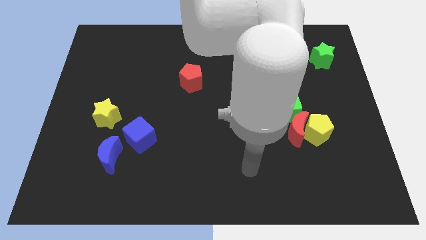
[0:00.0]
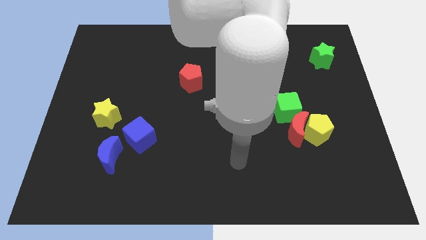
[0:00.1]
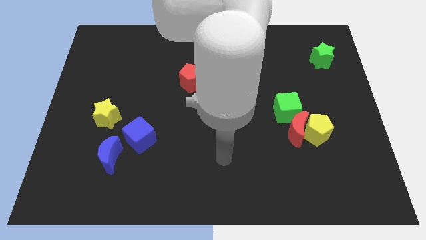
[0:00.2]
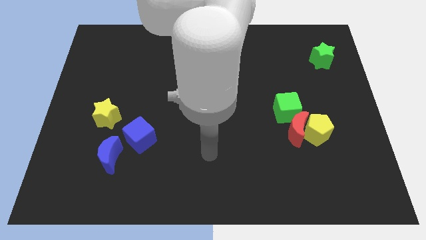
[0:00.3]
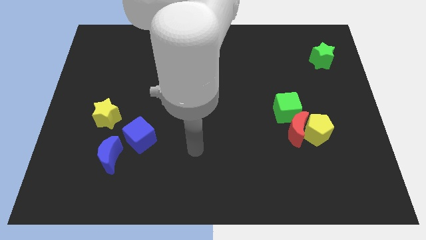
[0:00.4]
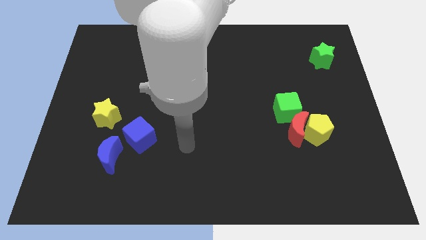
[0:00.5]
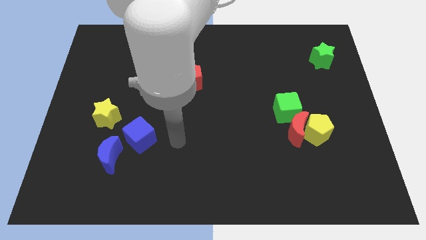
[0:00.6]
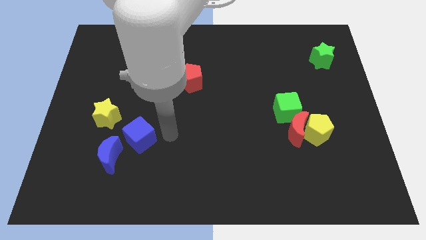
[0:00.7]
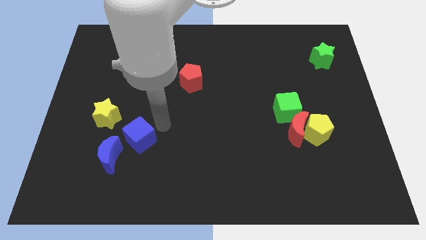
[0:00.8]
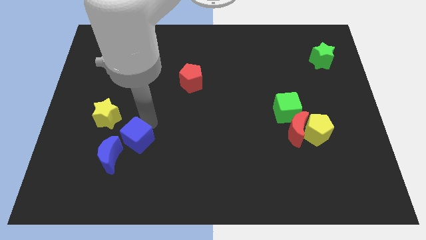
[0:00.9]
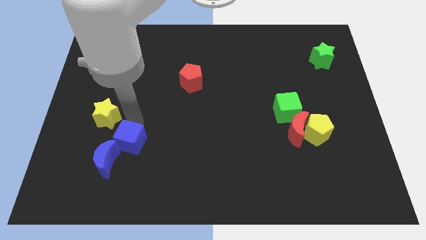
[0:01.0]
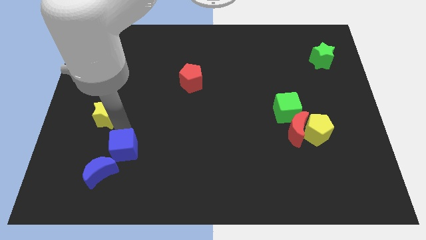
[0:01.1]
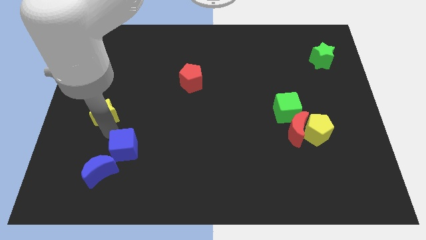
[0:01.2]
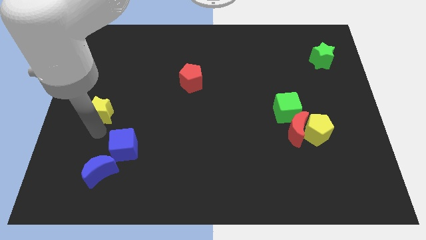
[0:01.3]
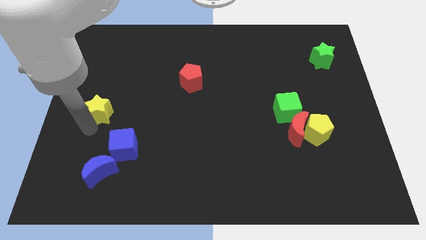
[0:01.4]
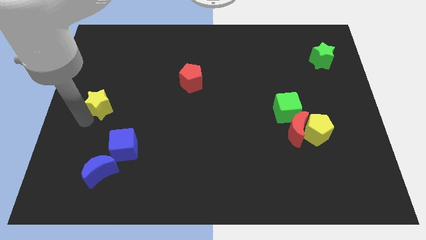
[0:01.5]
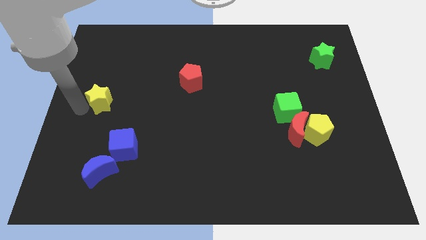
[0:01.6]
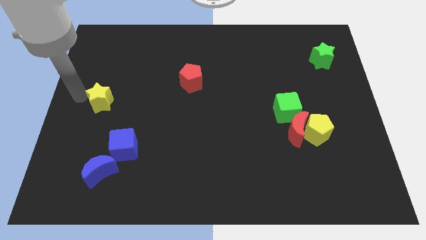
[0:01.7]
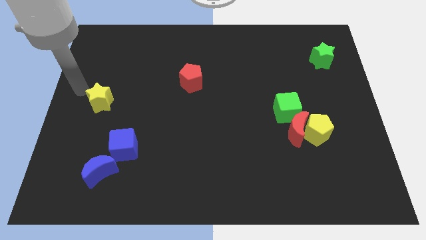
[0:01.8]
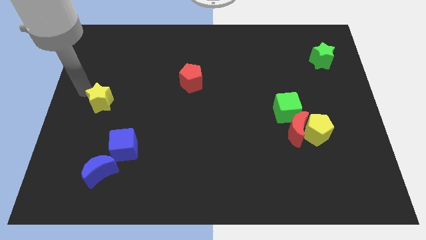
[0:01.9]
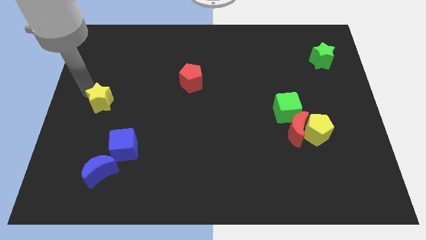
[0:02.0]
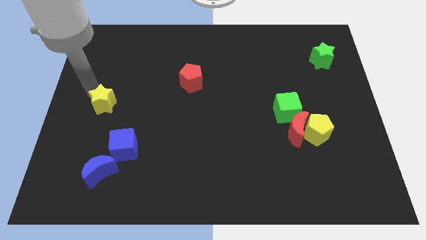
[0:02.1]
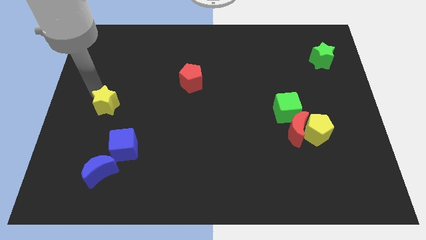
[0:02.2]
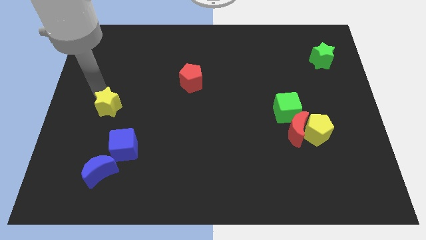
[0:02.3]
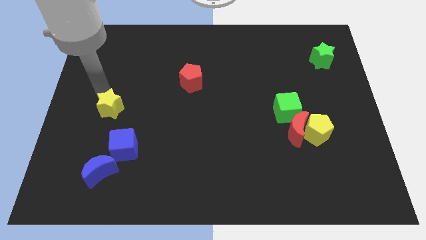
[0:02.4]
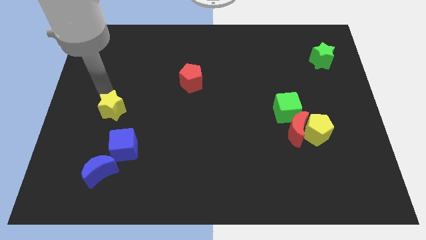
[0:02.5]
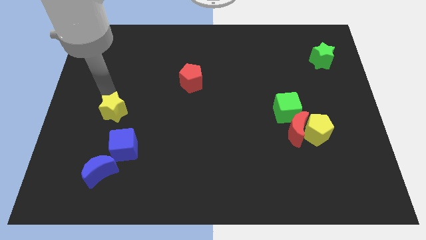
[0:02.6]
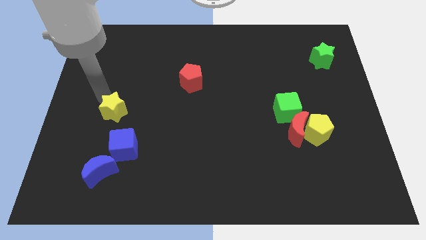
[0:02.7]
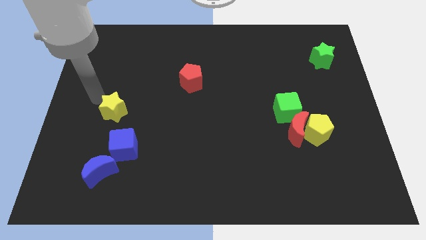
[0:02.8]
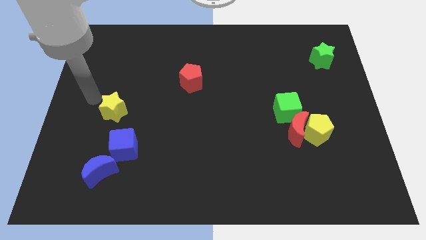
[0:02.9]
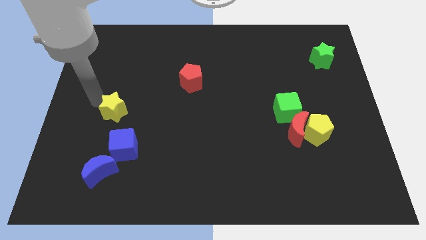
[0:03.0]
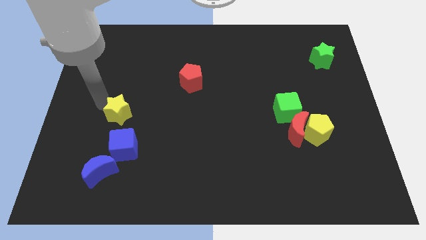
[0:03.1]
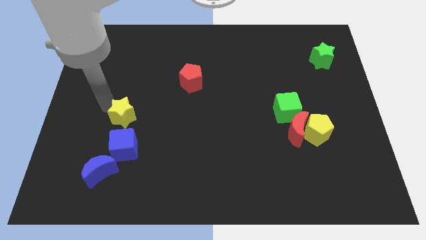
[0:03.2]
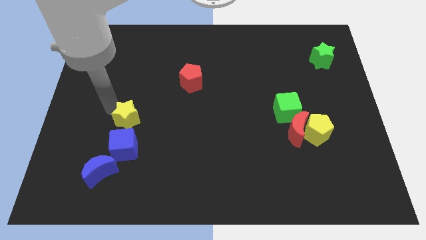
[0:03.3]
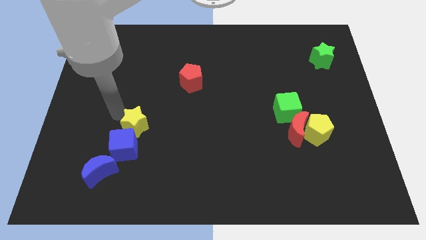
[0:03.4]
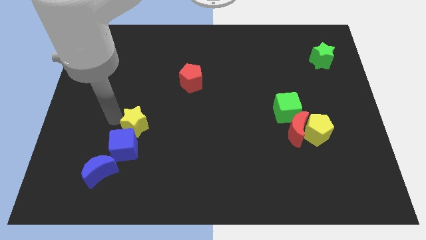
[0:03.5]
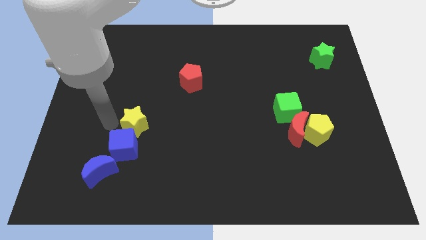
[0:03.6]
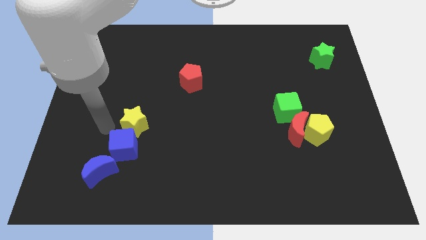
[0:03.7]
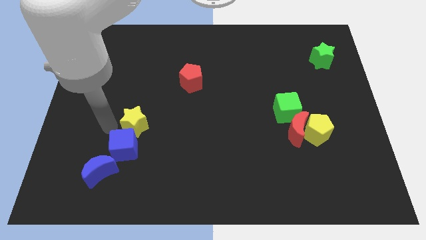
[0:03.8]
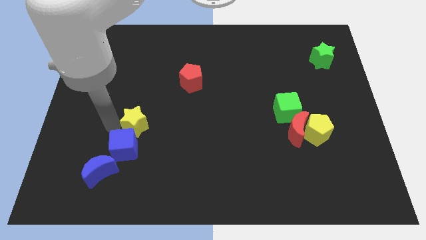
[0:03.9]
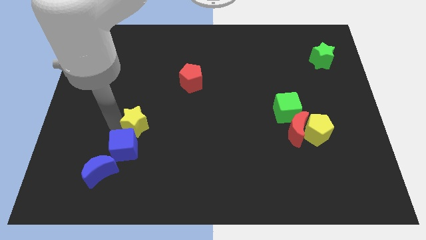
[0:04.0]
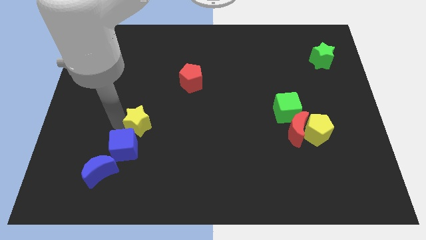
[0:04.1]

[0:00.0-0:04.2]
push the yellow star a little right

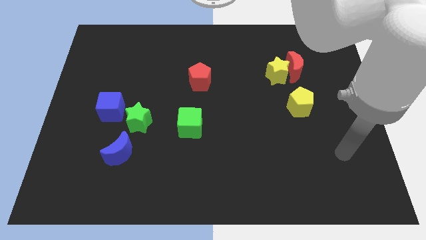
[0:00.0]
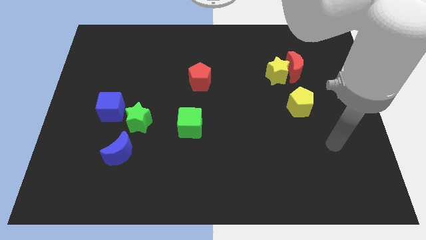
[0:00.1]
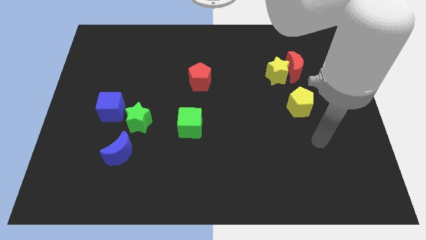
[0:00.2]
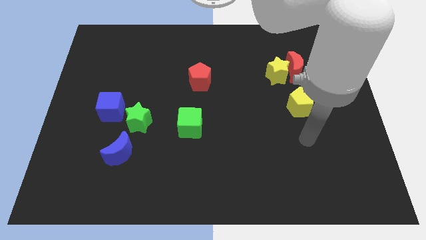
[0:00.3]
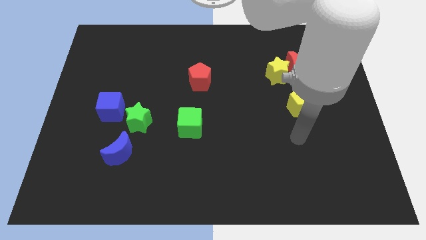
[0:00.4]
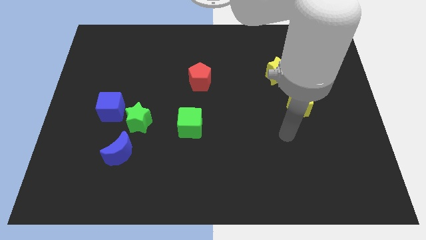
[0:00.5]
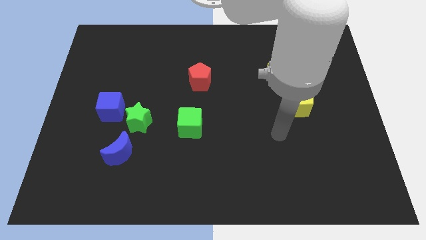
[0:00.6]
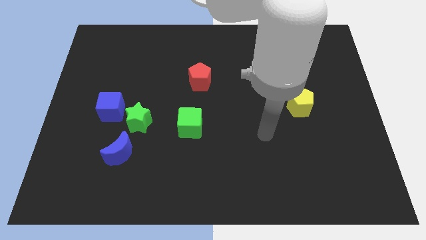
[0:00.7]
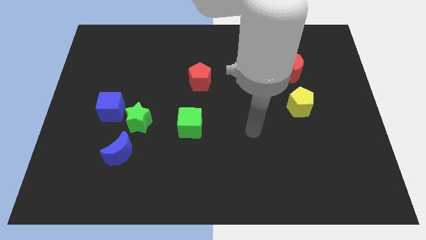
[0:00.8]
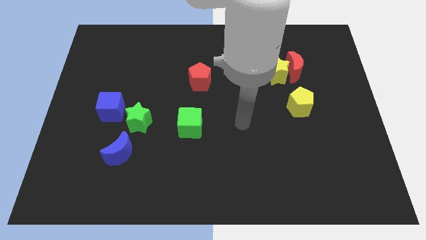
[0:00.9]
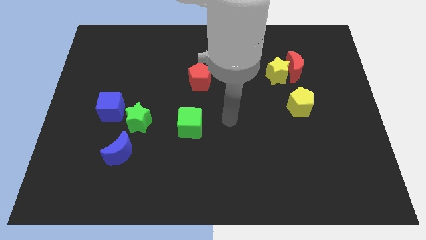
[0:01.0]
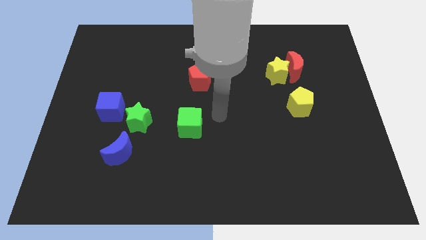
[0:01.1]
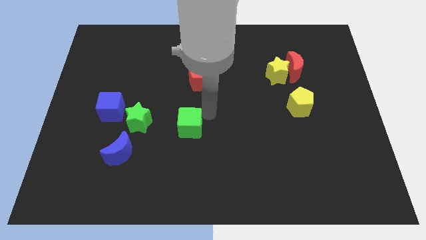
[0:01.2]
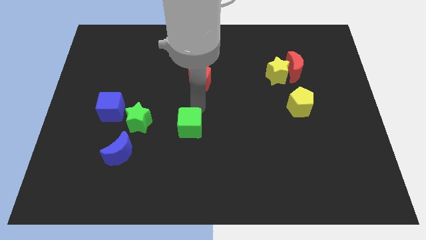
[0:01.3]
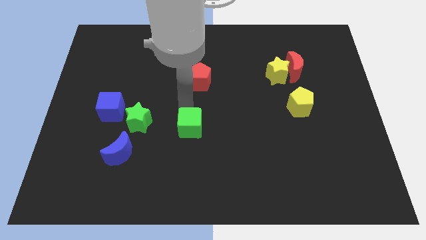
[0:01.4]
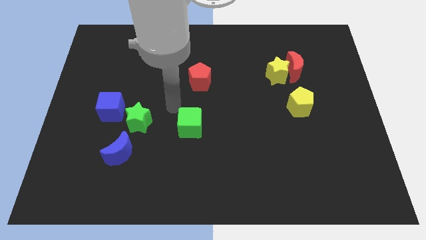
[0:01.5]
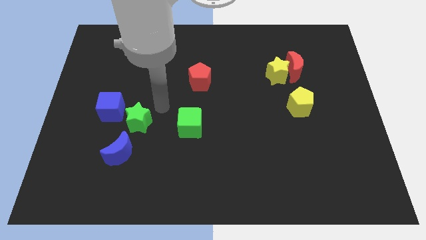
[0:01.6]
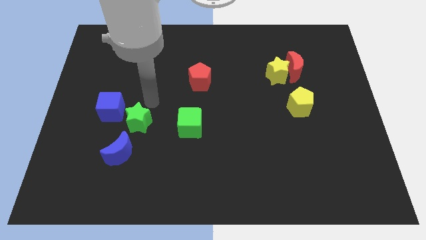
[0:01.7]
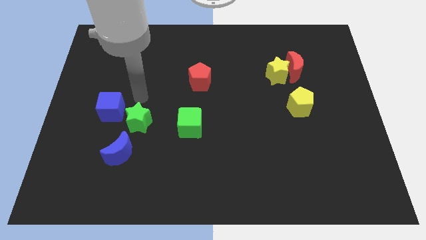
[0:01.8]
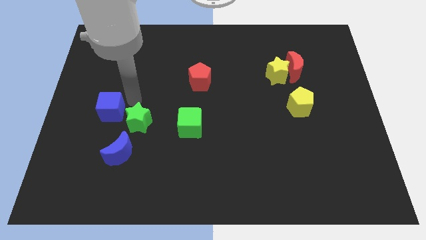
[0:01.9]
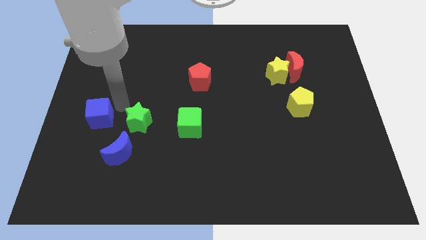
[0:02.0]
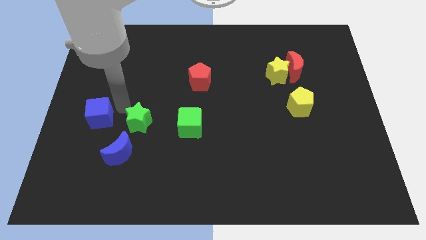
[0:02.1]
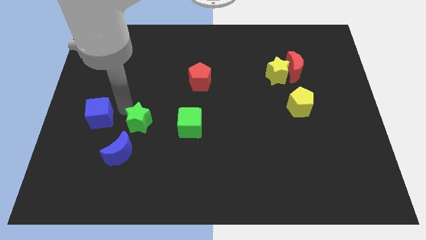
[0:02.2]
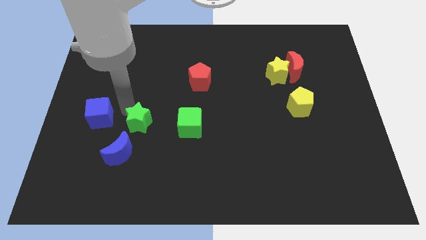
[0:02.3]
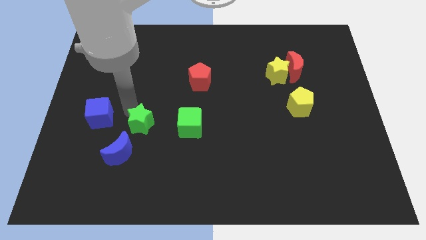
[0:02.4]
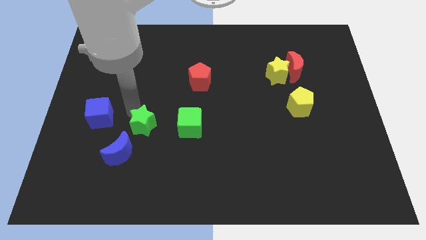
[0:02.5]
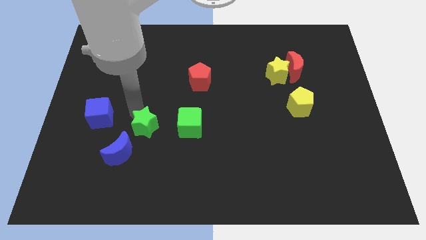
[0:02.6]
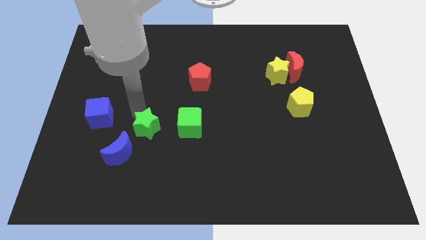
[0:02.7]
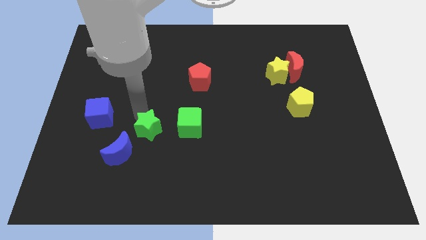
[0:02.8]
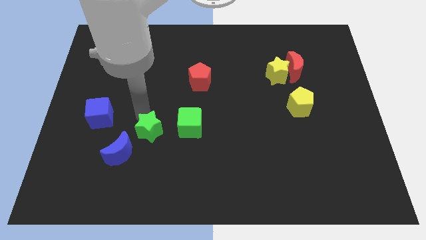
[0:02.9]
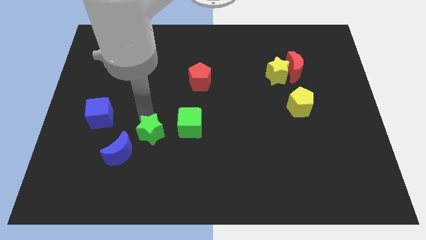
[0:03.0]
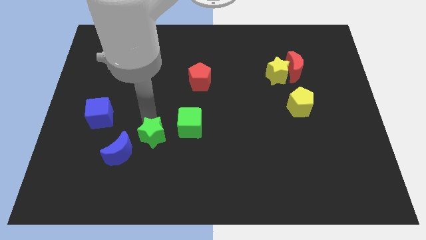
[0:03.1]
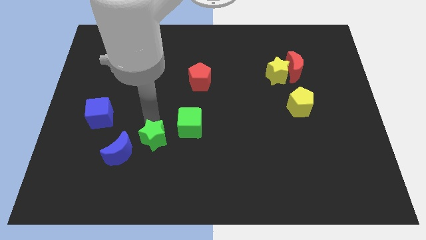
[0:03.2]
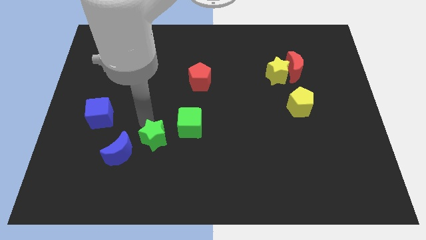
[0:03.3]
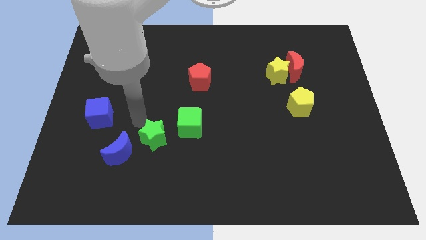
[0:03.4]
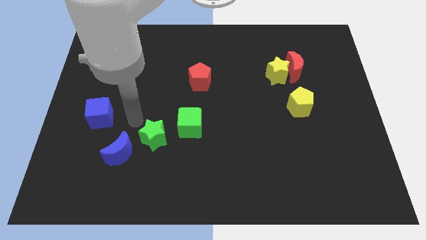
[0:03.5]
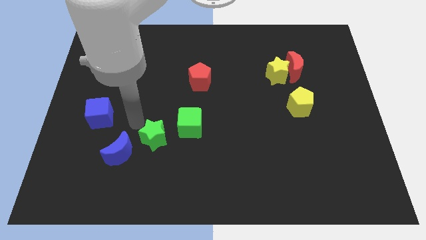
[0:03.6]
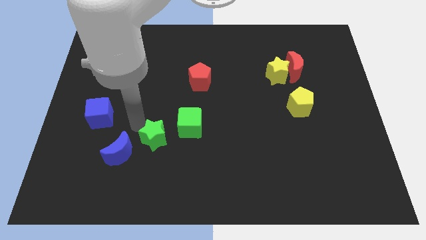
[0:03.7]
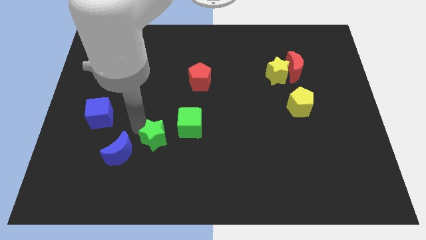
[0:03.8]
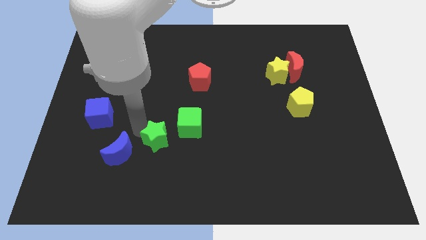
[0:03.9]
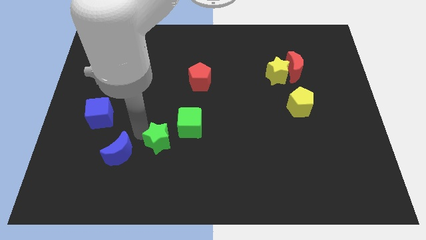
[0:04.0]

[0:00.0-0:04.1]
slide the green star a little diagonally down and right

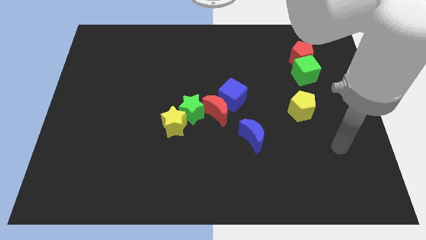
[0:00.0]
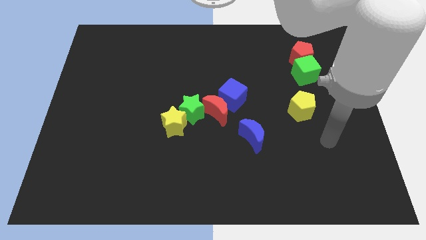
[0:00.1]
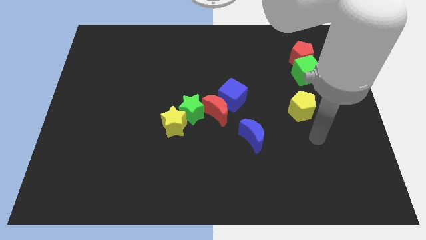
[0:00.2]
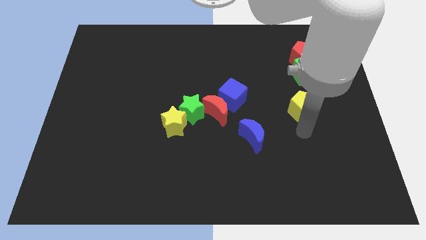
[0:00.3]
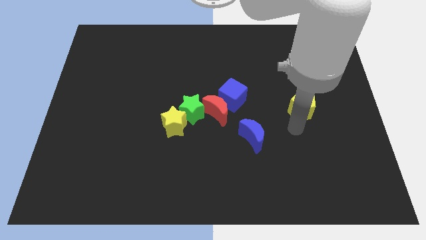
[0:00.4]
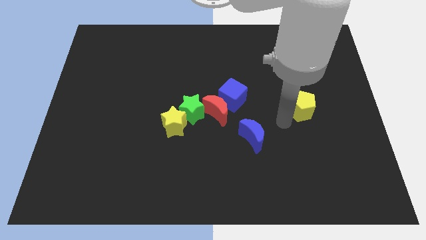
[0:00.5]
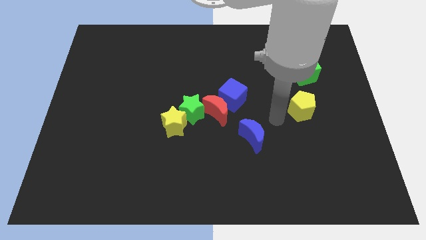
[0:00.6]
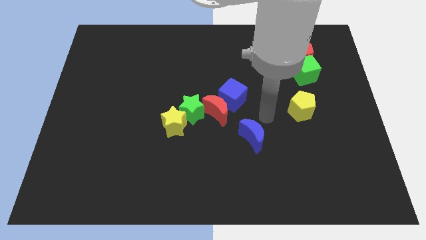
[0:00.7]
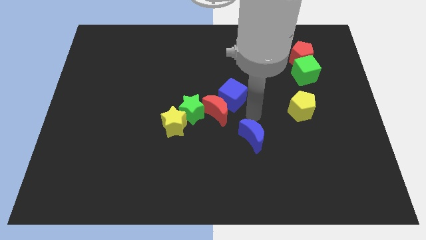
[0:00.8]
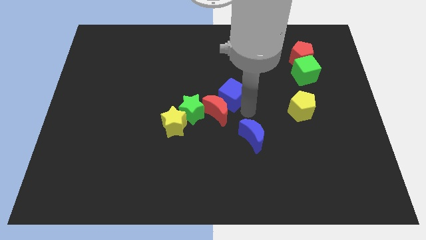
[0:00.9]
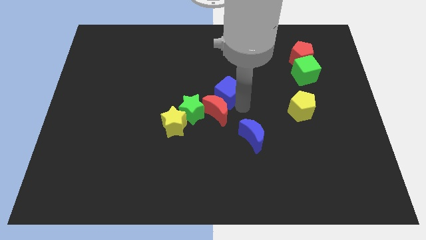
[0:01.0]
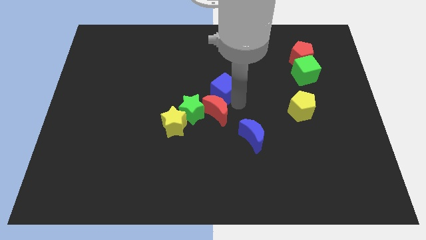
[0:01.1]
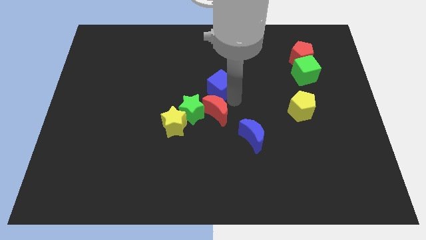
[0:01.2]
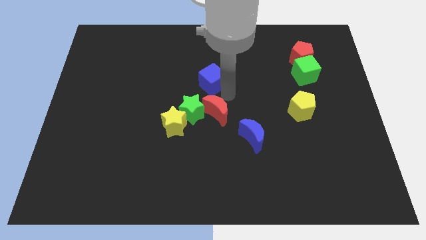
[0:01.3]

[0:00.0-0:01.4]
slightly slide the blue cube up and then left
